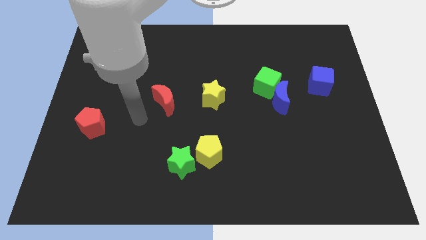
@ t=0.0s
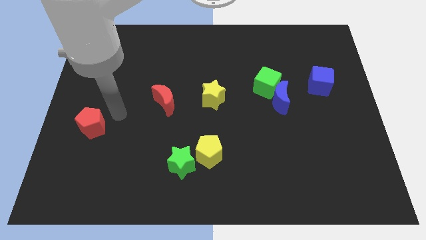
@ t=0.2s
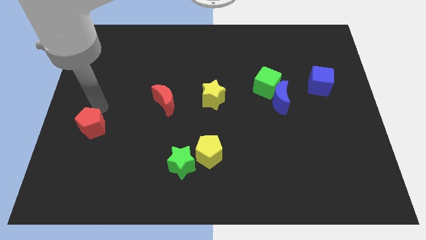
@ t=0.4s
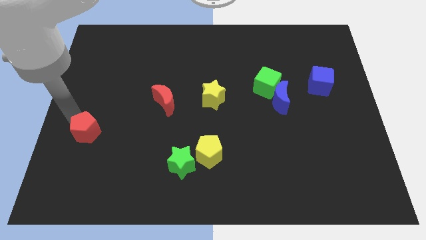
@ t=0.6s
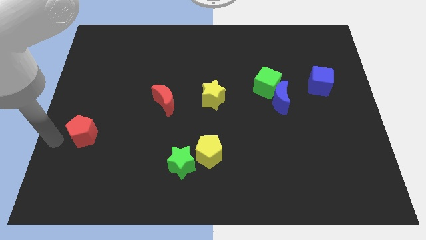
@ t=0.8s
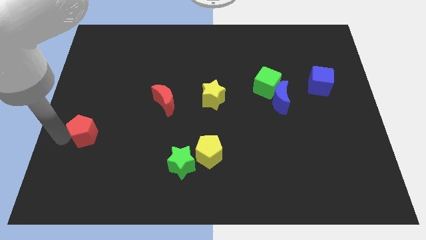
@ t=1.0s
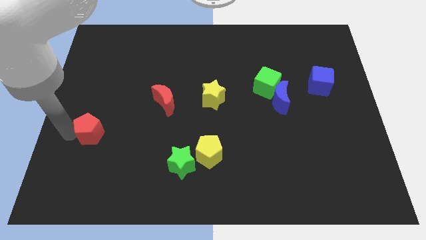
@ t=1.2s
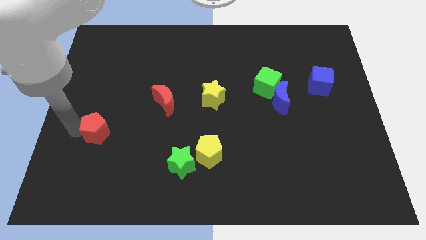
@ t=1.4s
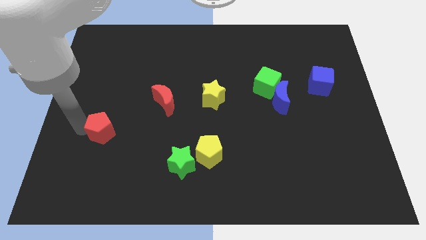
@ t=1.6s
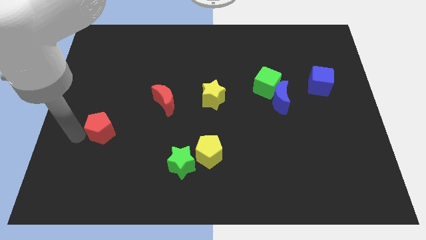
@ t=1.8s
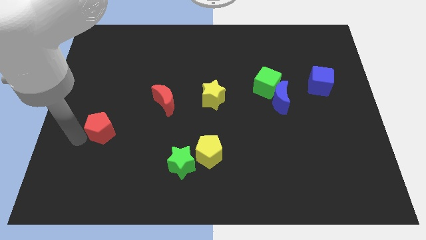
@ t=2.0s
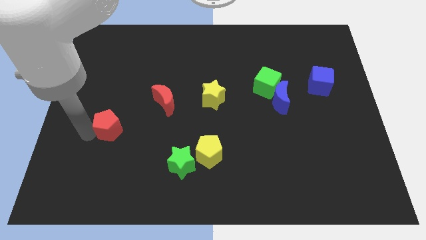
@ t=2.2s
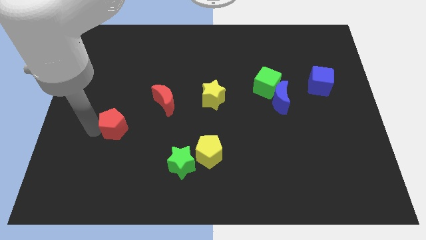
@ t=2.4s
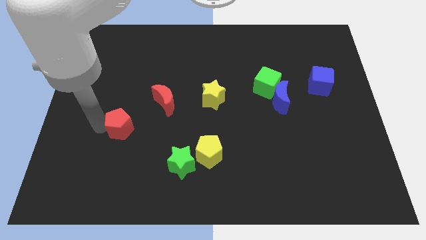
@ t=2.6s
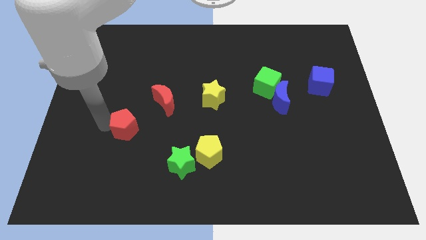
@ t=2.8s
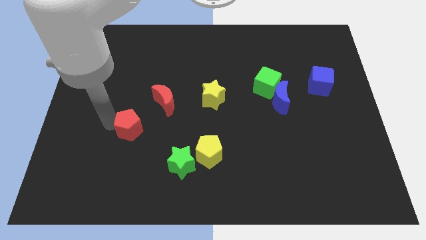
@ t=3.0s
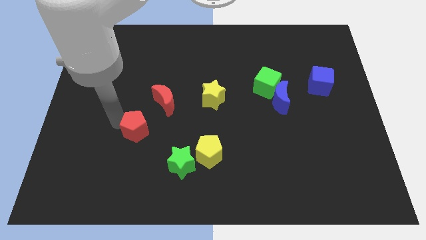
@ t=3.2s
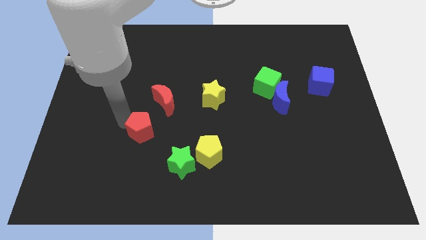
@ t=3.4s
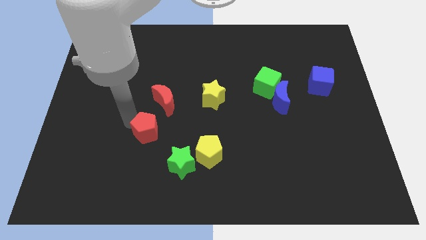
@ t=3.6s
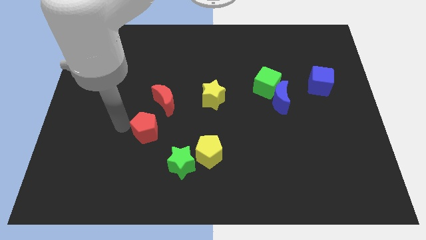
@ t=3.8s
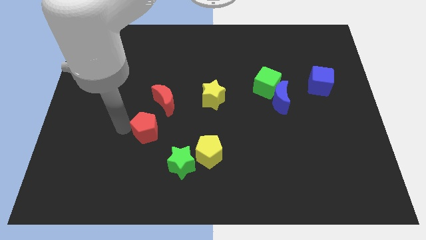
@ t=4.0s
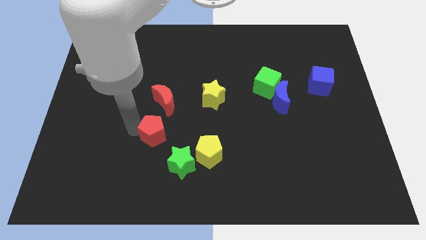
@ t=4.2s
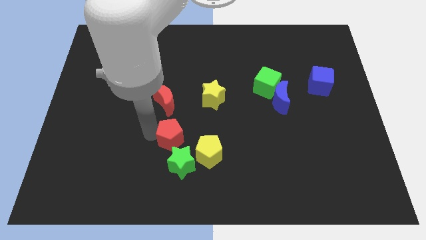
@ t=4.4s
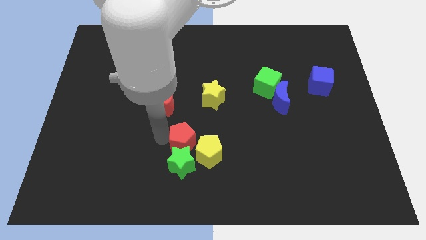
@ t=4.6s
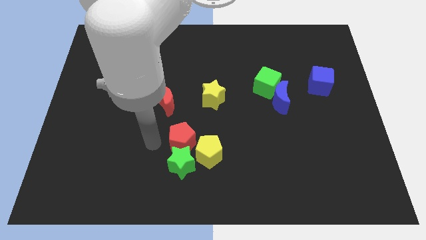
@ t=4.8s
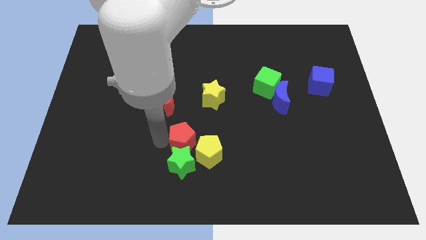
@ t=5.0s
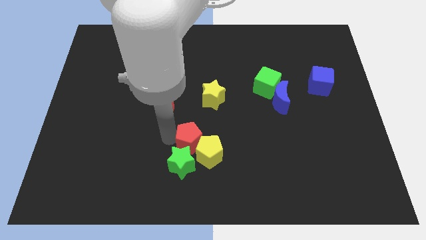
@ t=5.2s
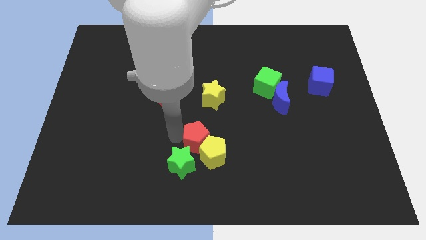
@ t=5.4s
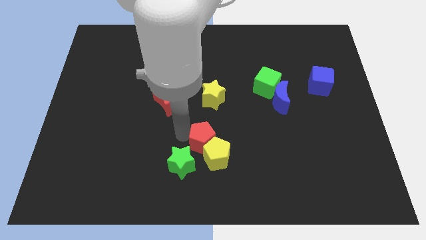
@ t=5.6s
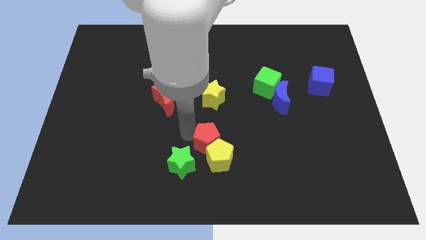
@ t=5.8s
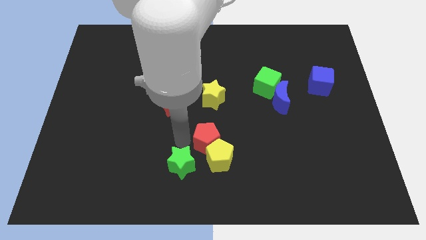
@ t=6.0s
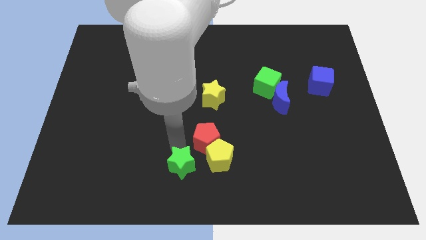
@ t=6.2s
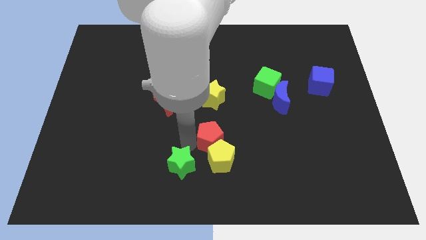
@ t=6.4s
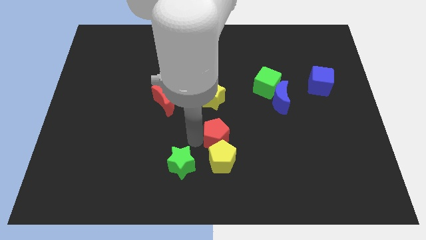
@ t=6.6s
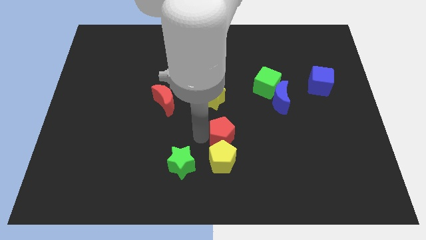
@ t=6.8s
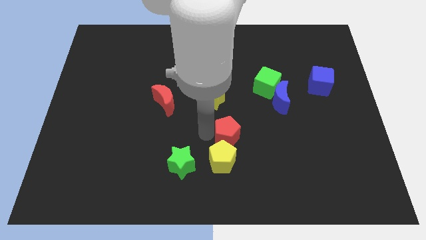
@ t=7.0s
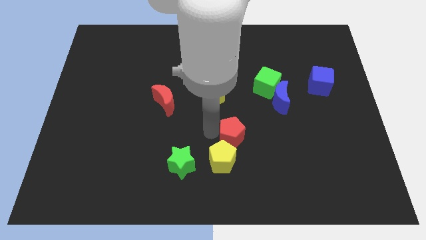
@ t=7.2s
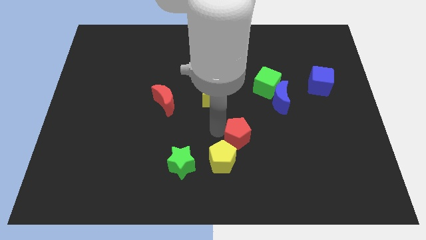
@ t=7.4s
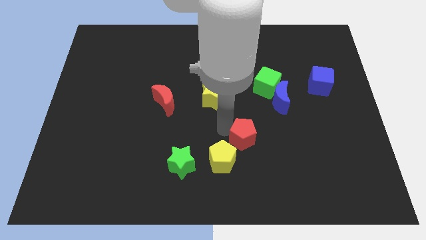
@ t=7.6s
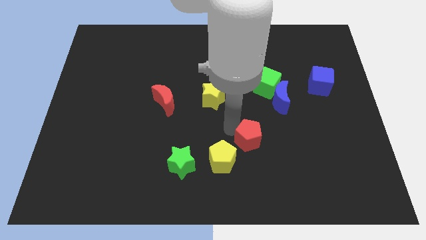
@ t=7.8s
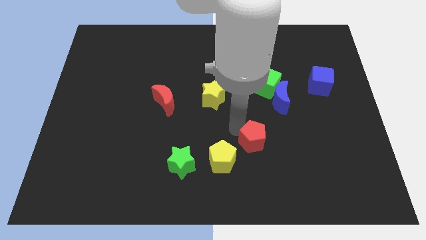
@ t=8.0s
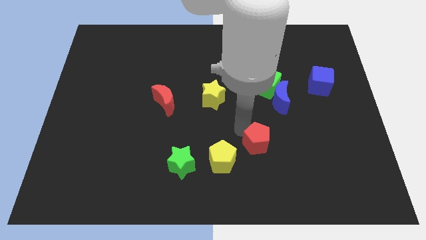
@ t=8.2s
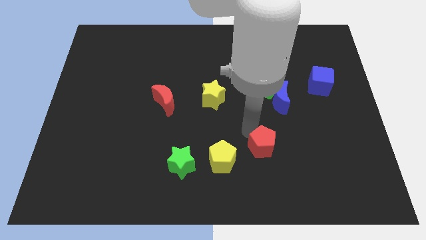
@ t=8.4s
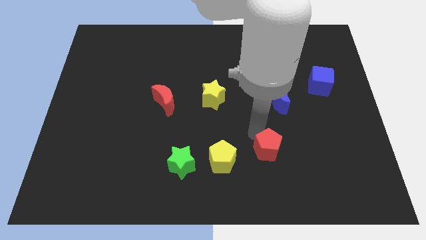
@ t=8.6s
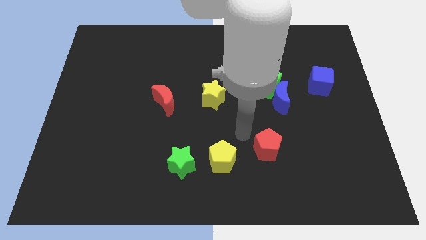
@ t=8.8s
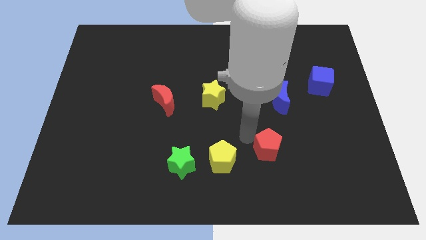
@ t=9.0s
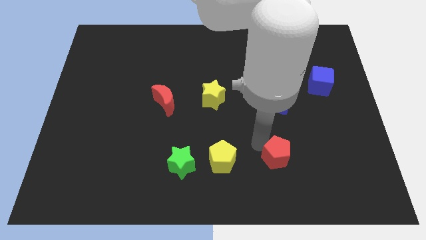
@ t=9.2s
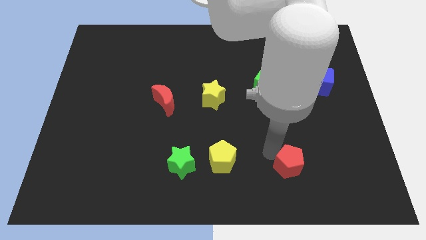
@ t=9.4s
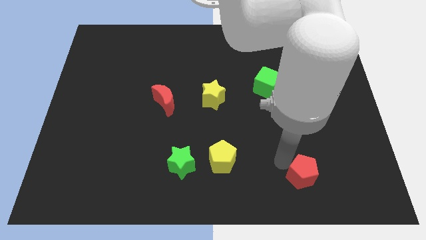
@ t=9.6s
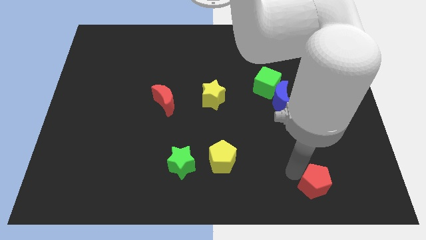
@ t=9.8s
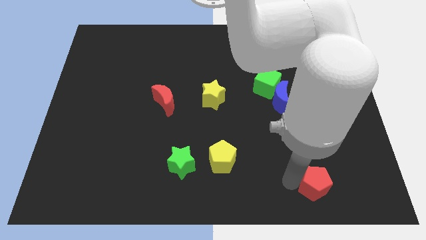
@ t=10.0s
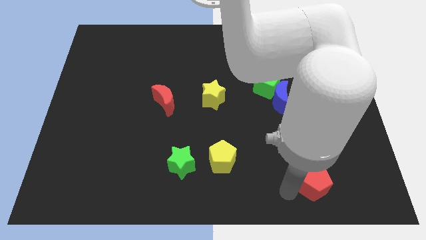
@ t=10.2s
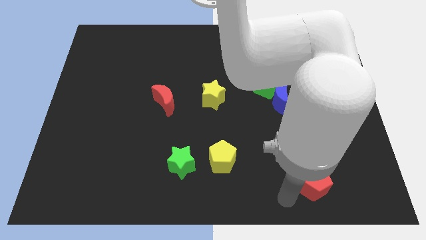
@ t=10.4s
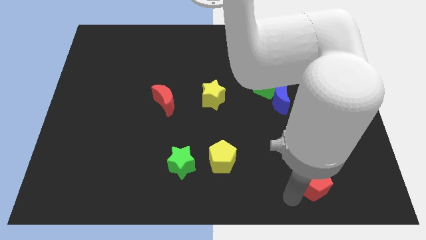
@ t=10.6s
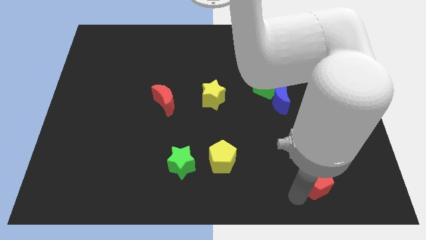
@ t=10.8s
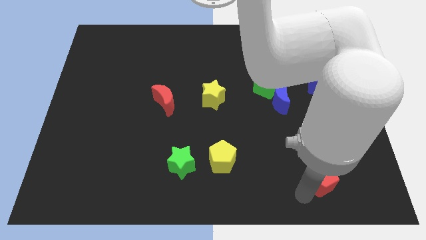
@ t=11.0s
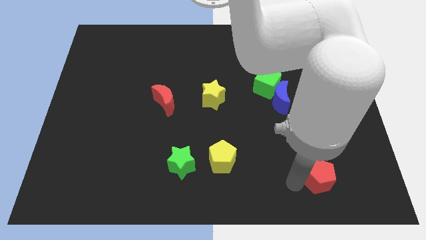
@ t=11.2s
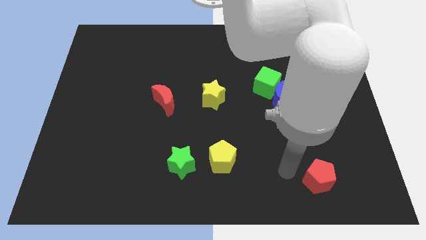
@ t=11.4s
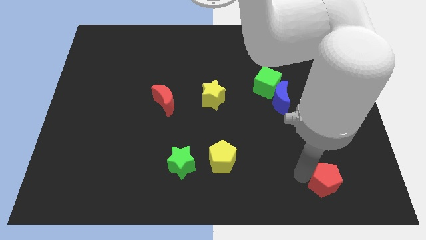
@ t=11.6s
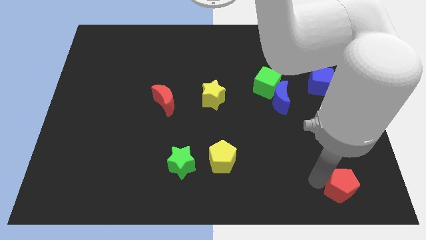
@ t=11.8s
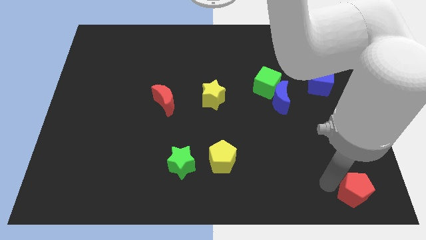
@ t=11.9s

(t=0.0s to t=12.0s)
push the red pentagon to the bottom right

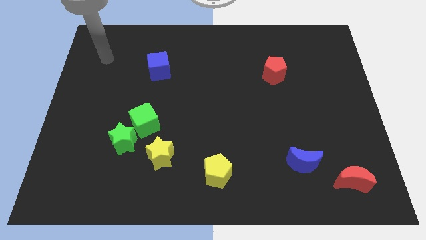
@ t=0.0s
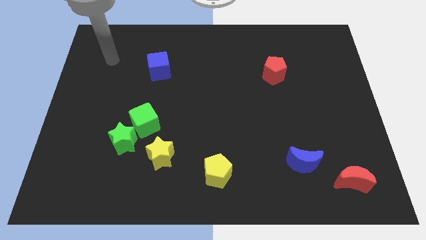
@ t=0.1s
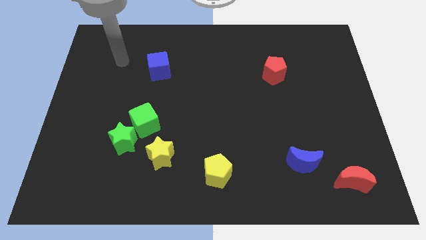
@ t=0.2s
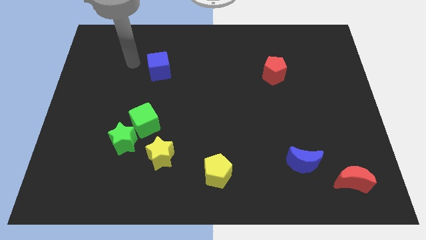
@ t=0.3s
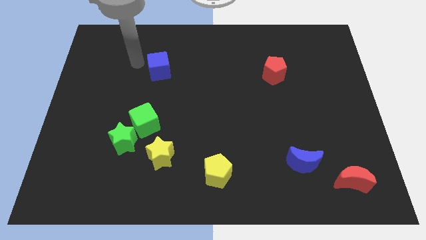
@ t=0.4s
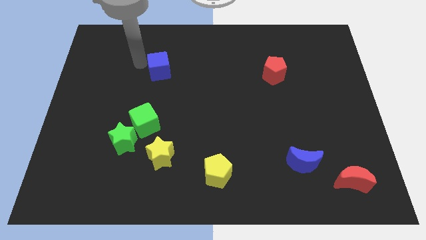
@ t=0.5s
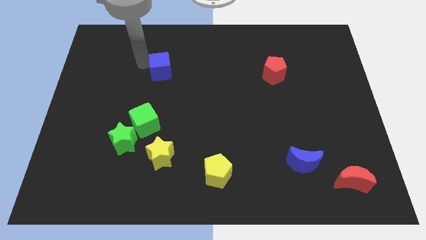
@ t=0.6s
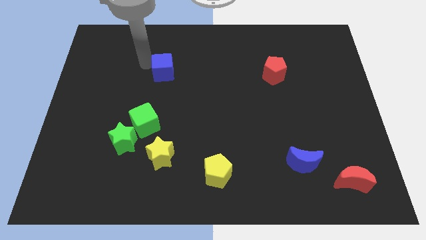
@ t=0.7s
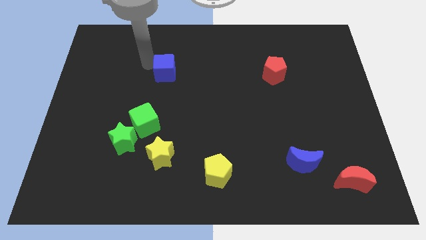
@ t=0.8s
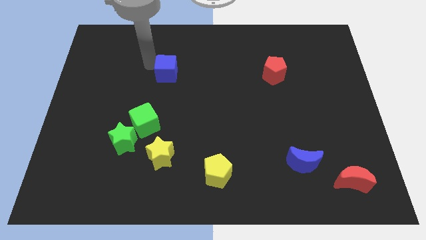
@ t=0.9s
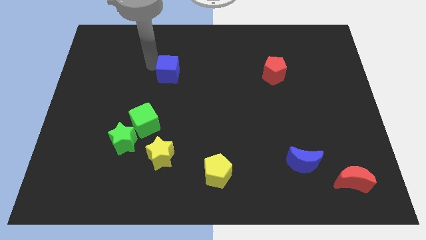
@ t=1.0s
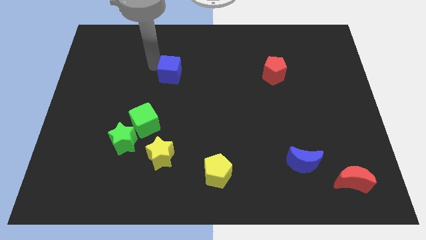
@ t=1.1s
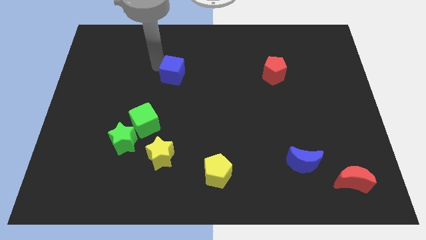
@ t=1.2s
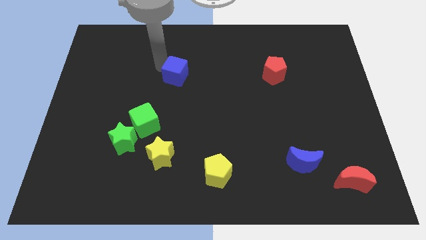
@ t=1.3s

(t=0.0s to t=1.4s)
move the blue cube to the center of the board
